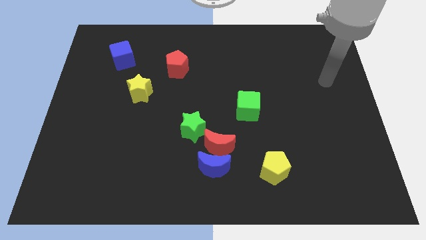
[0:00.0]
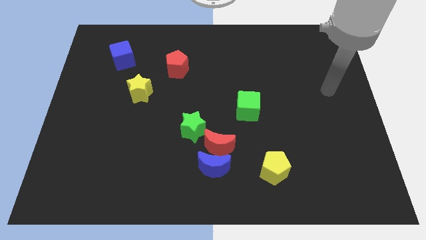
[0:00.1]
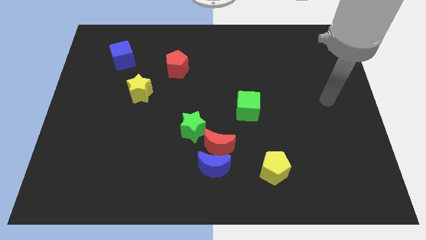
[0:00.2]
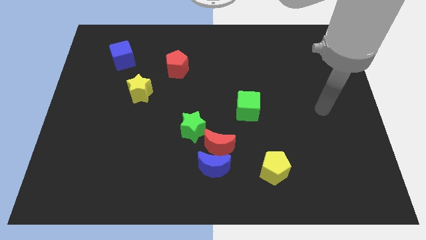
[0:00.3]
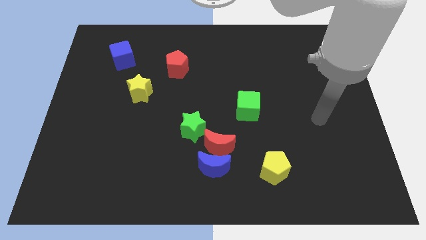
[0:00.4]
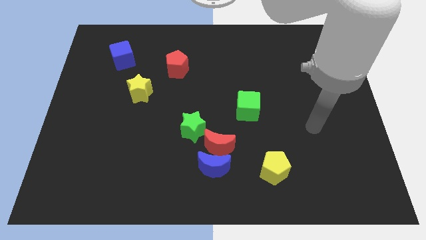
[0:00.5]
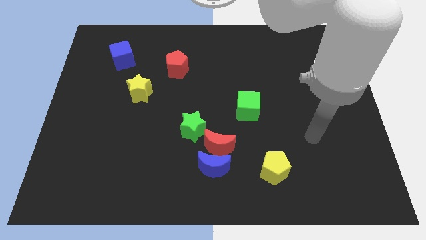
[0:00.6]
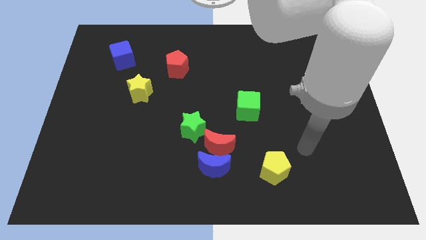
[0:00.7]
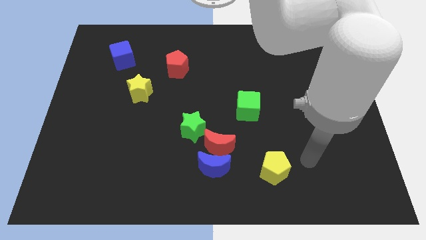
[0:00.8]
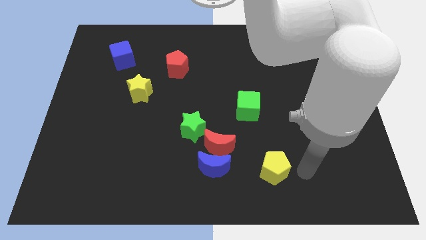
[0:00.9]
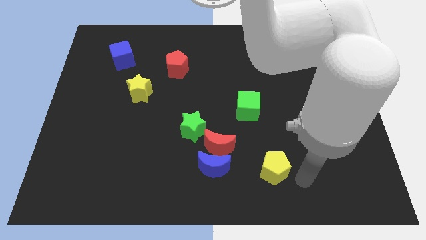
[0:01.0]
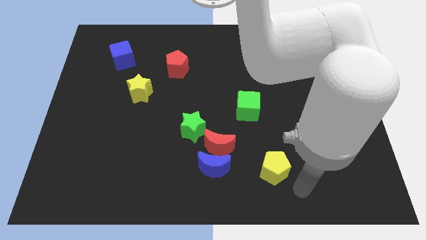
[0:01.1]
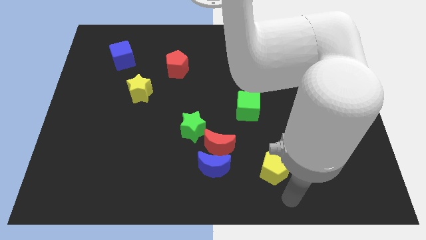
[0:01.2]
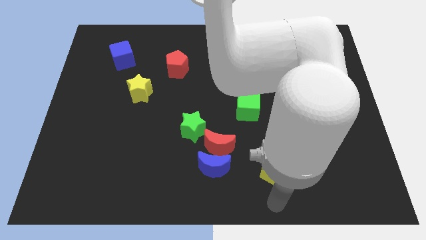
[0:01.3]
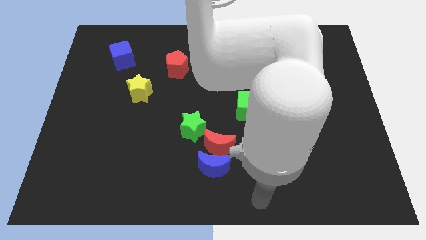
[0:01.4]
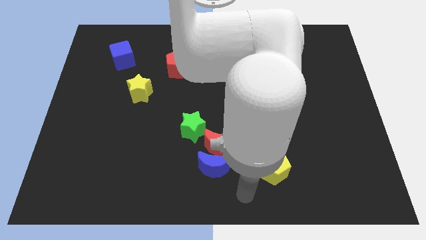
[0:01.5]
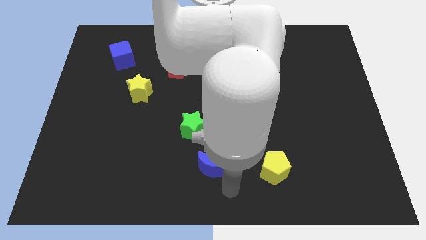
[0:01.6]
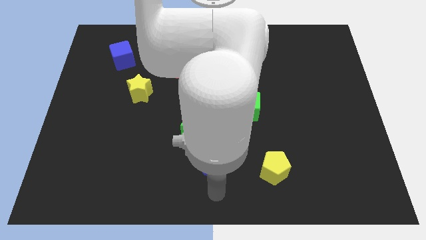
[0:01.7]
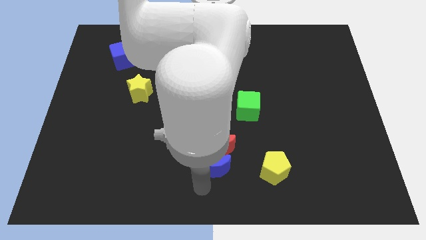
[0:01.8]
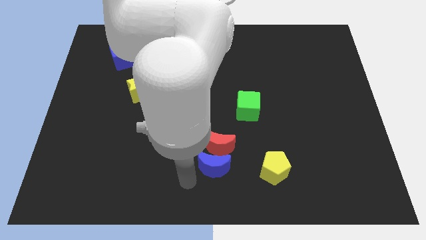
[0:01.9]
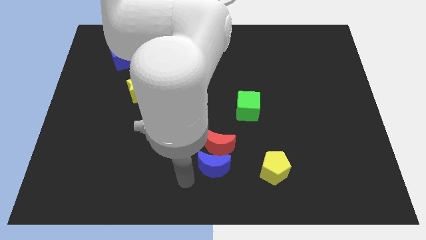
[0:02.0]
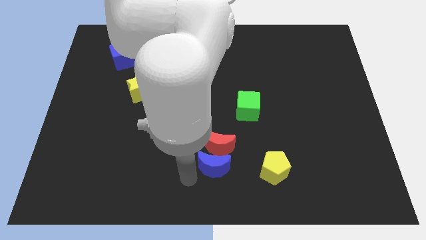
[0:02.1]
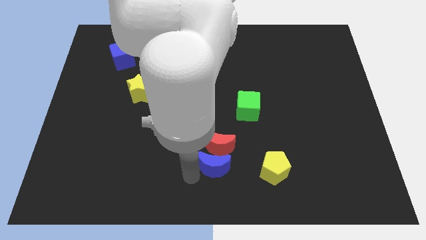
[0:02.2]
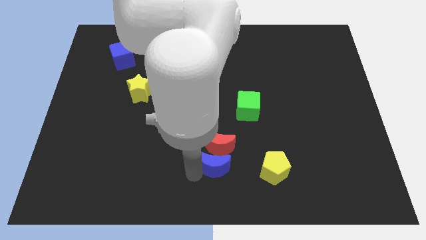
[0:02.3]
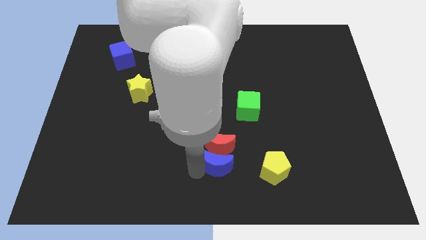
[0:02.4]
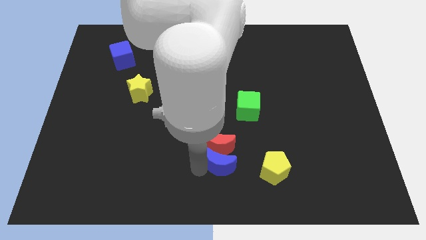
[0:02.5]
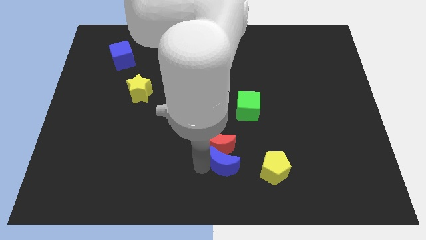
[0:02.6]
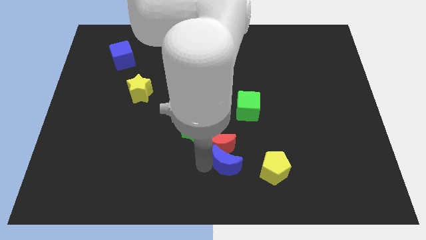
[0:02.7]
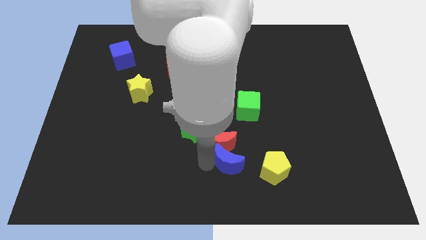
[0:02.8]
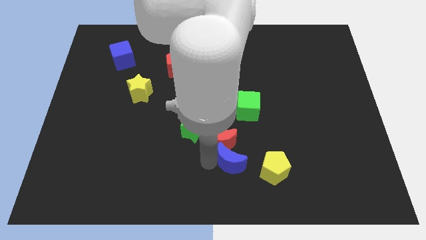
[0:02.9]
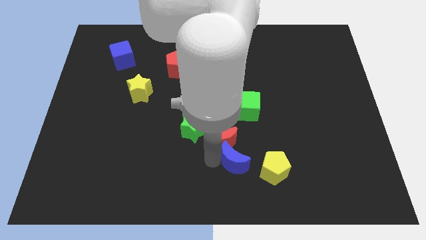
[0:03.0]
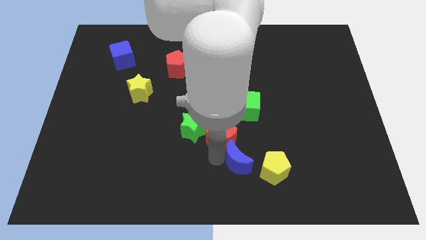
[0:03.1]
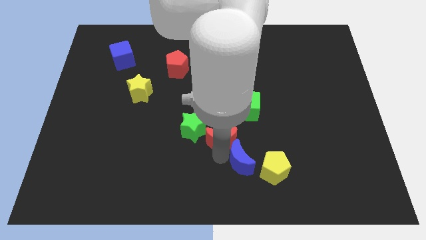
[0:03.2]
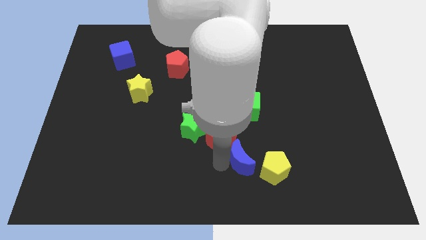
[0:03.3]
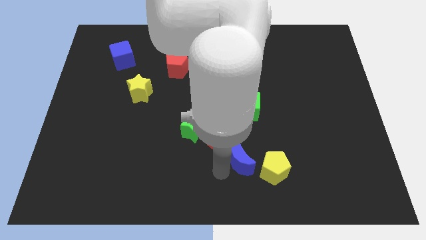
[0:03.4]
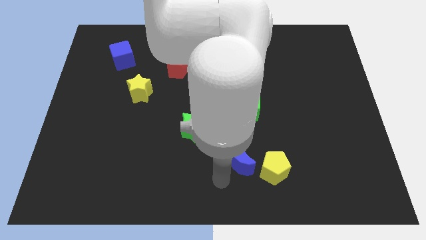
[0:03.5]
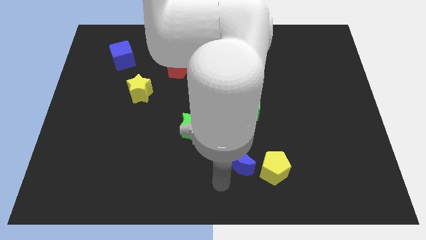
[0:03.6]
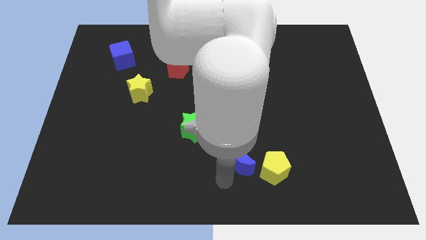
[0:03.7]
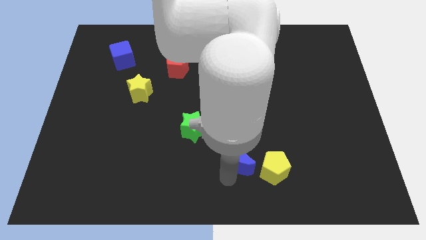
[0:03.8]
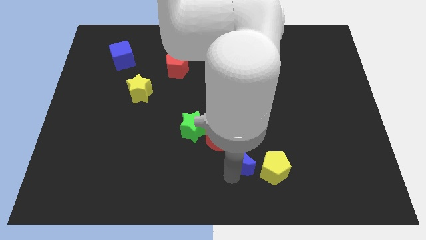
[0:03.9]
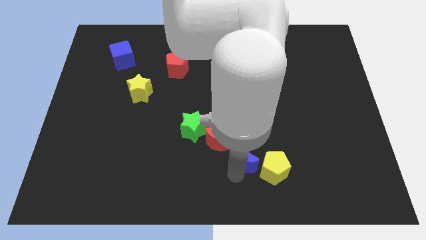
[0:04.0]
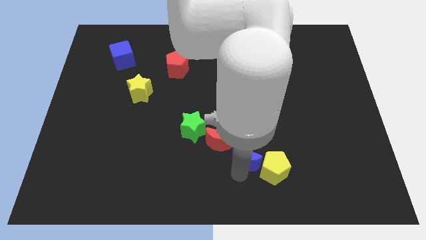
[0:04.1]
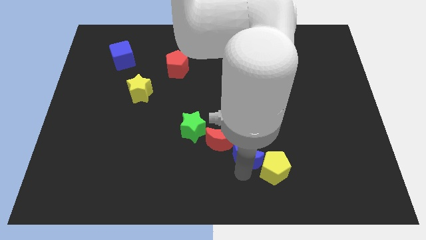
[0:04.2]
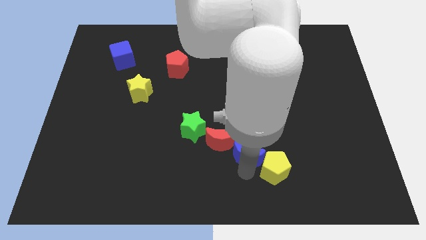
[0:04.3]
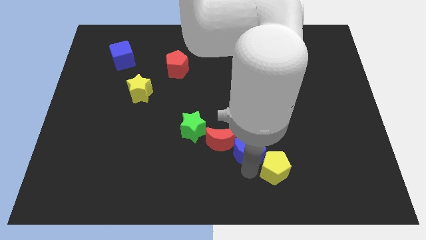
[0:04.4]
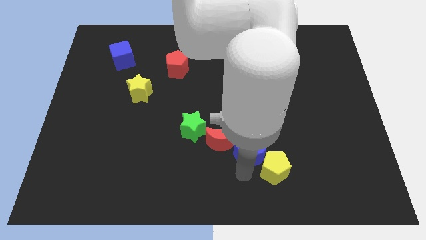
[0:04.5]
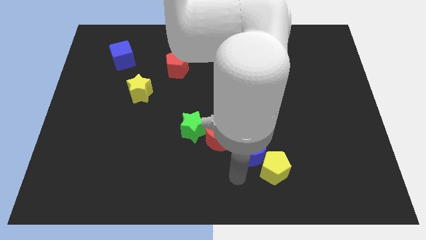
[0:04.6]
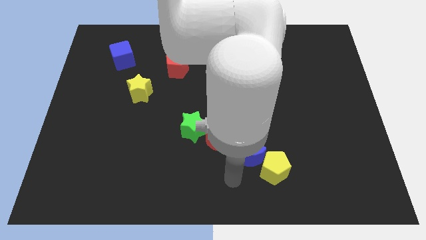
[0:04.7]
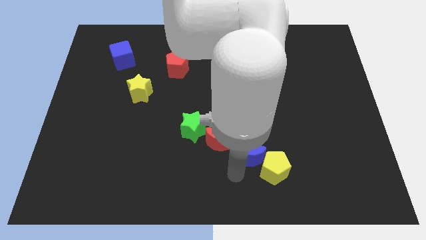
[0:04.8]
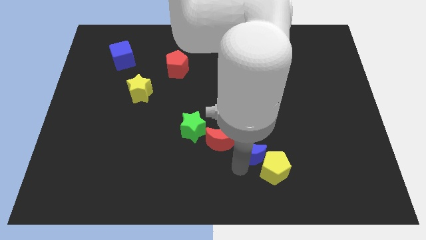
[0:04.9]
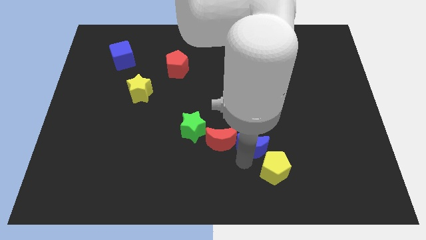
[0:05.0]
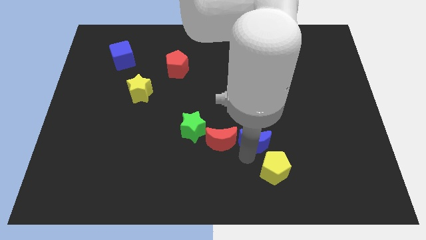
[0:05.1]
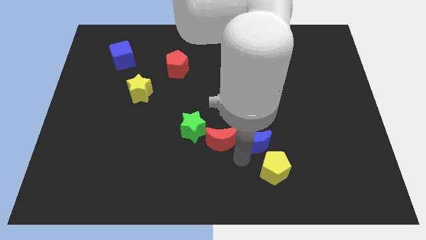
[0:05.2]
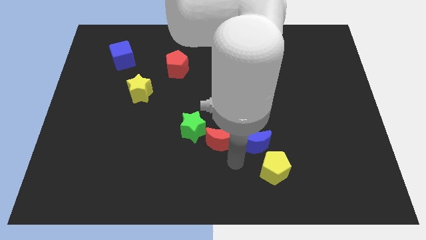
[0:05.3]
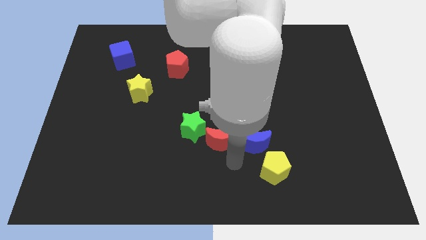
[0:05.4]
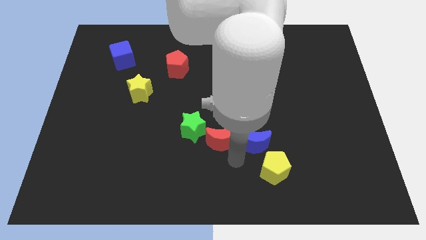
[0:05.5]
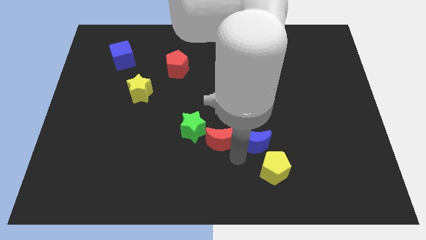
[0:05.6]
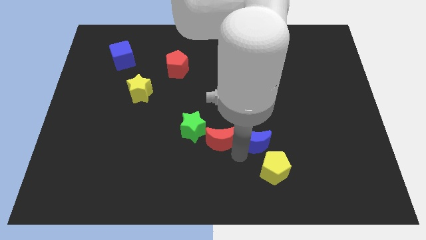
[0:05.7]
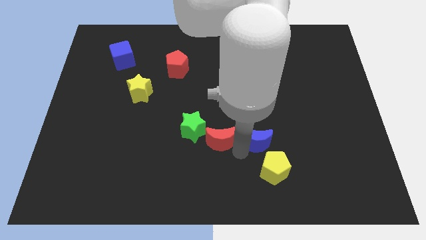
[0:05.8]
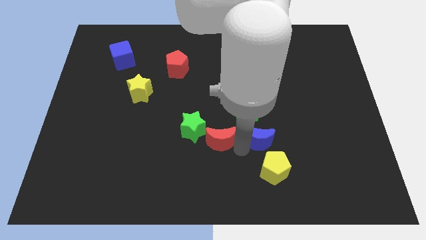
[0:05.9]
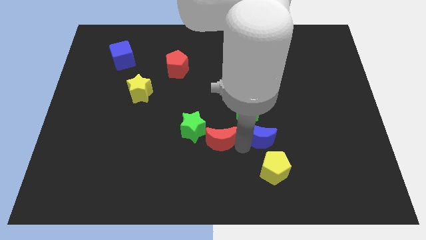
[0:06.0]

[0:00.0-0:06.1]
push the blue moon to the bottom right of the green cube

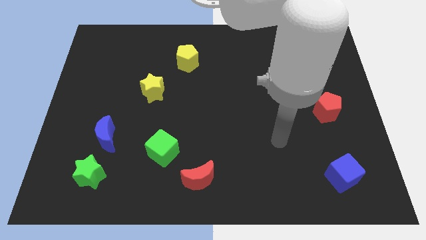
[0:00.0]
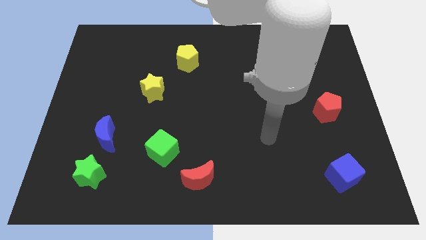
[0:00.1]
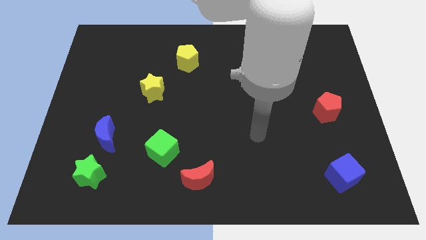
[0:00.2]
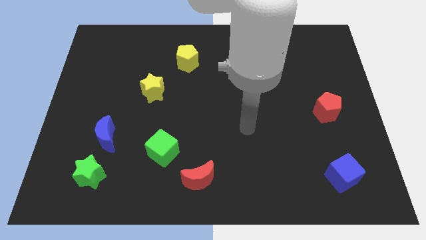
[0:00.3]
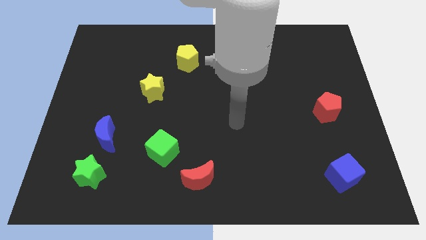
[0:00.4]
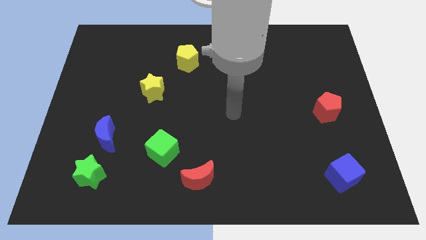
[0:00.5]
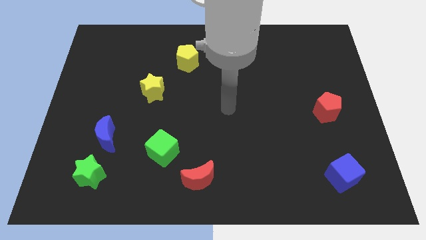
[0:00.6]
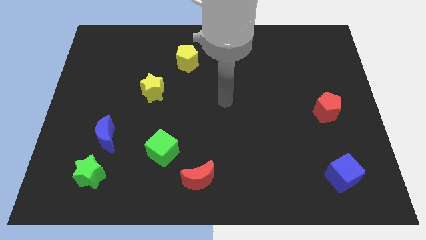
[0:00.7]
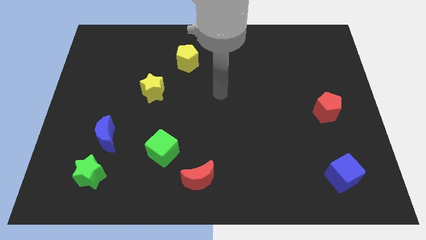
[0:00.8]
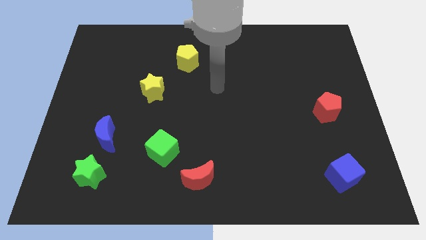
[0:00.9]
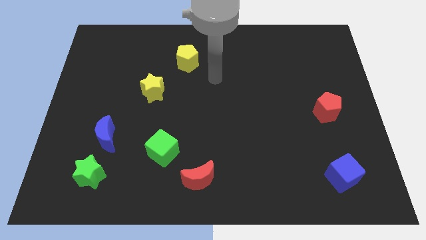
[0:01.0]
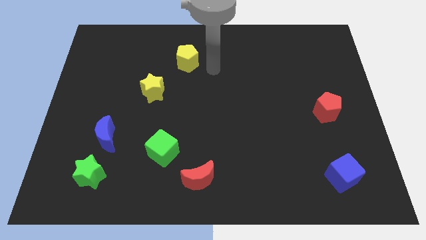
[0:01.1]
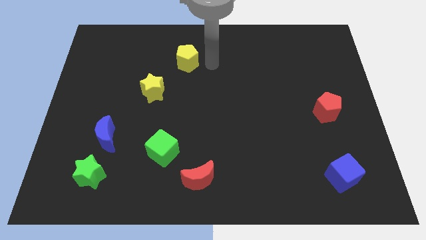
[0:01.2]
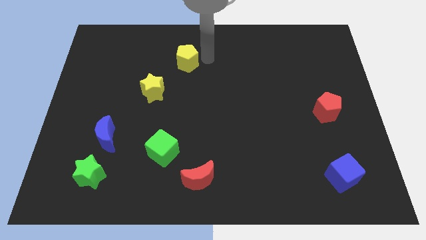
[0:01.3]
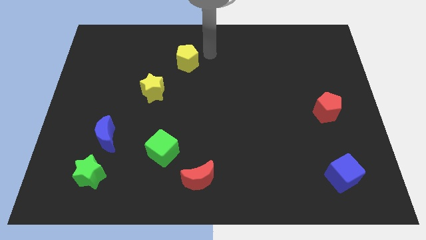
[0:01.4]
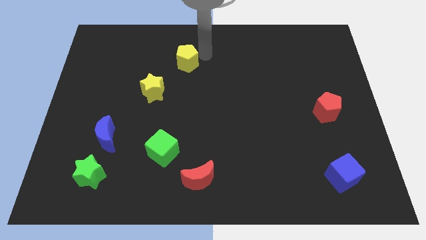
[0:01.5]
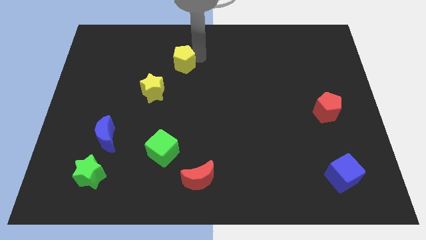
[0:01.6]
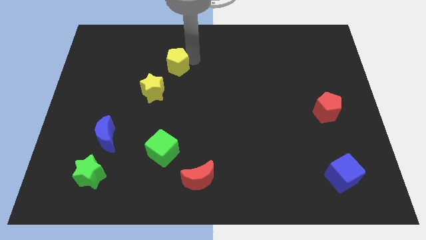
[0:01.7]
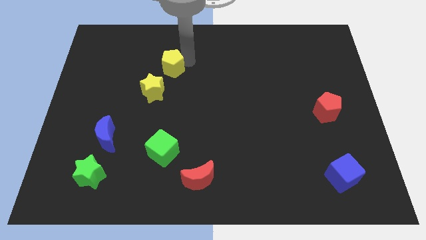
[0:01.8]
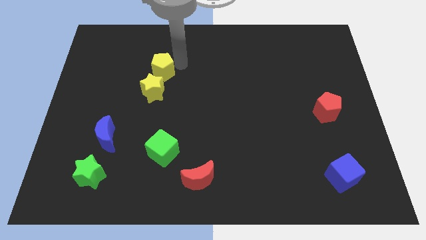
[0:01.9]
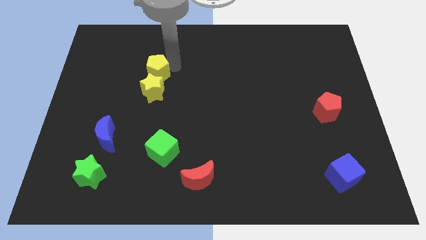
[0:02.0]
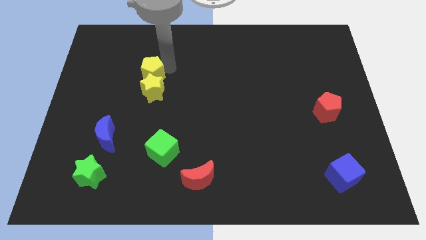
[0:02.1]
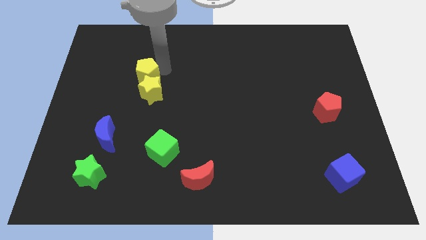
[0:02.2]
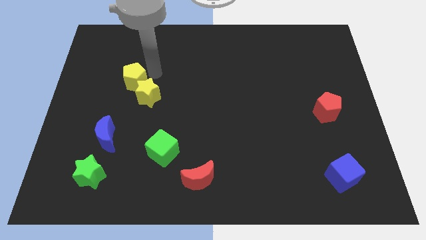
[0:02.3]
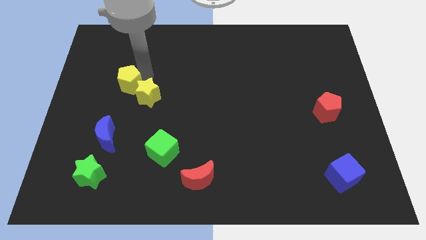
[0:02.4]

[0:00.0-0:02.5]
slide the yellow pentagon to the left of the yellow star
